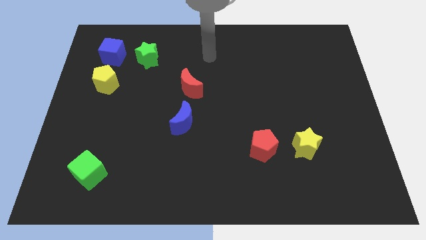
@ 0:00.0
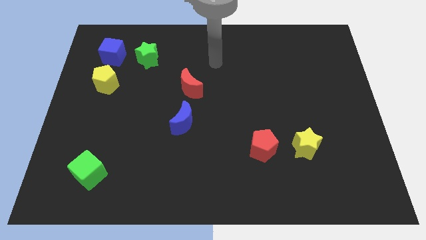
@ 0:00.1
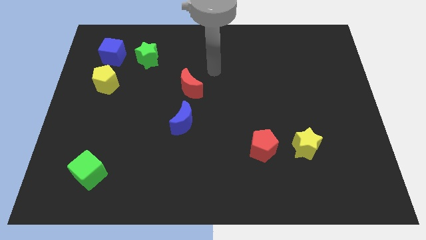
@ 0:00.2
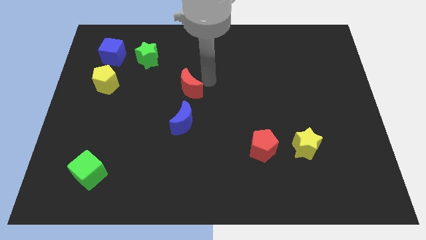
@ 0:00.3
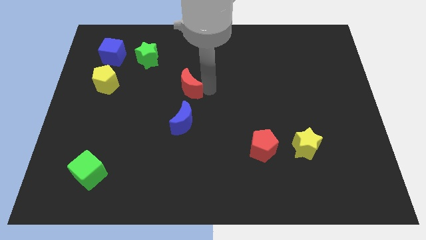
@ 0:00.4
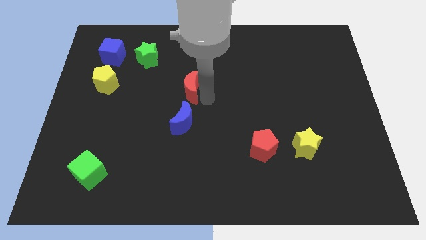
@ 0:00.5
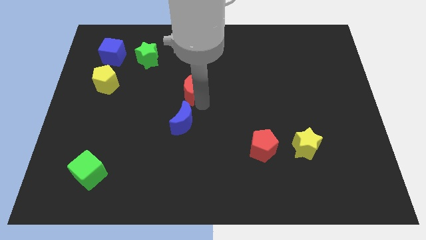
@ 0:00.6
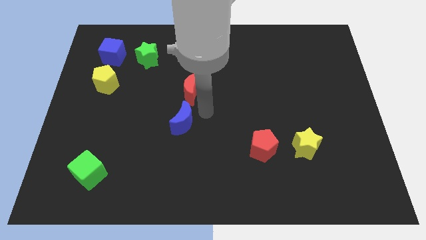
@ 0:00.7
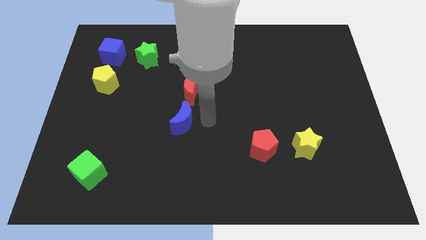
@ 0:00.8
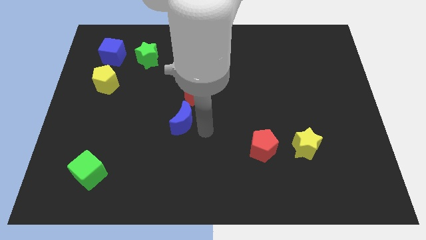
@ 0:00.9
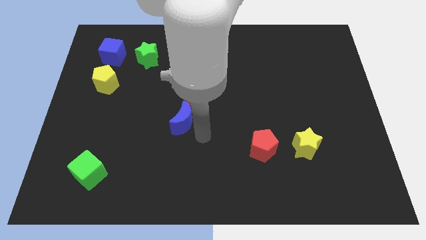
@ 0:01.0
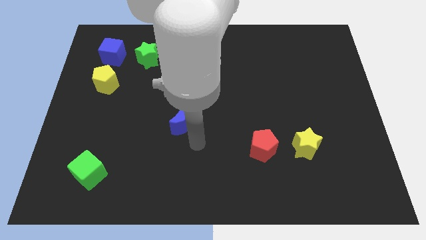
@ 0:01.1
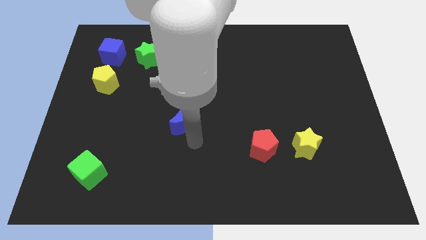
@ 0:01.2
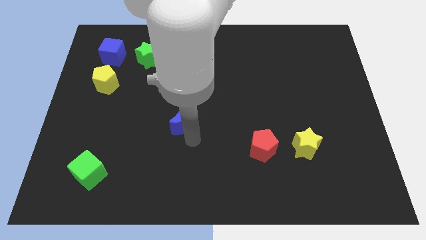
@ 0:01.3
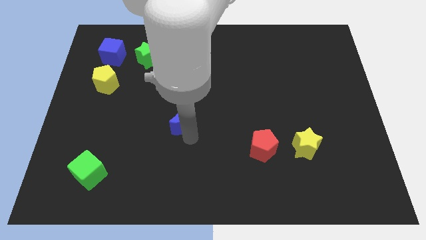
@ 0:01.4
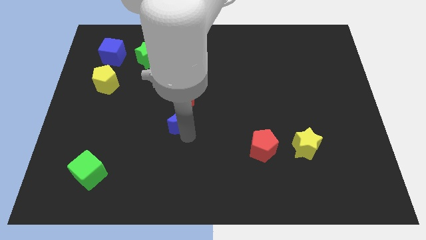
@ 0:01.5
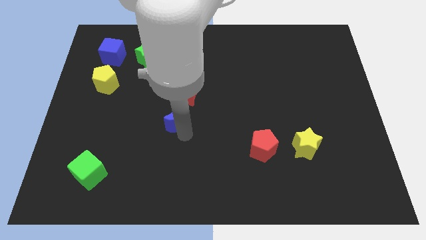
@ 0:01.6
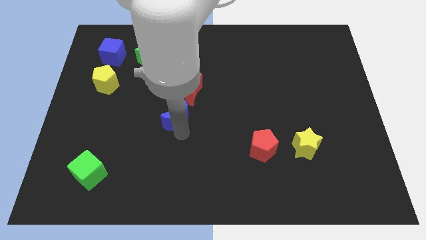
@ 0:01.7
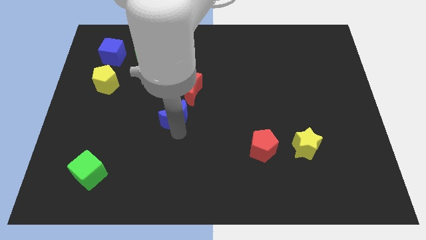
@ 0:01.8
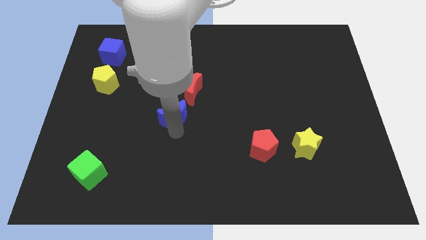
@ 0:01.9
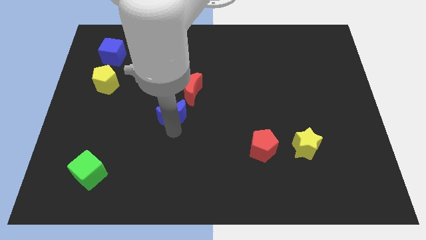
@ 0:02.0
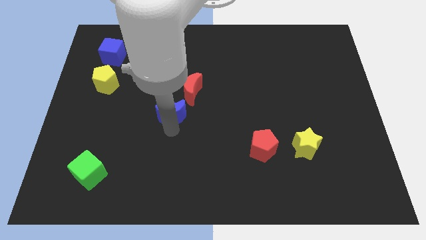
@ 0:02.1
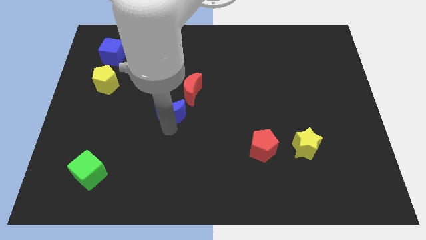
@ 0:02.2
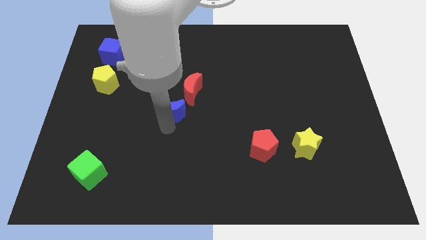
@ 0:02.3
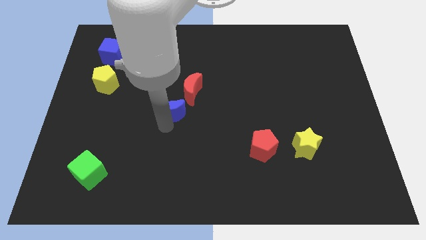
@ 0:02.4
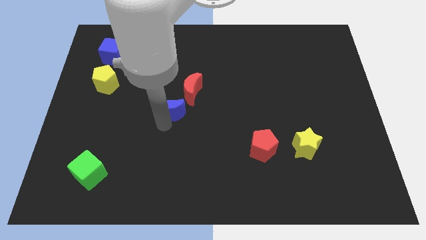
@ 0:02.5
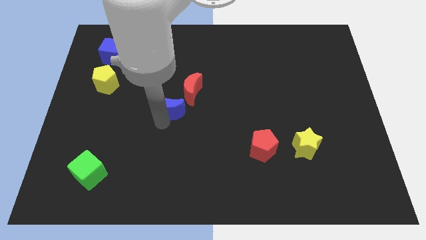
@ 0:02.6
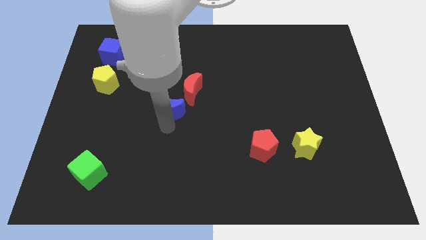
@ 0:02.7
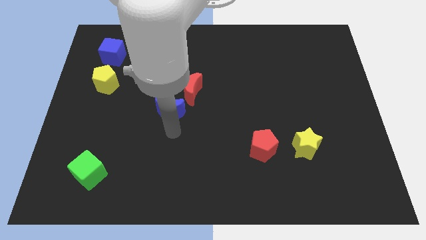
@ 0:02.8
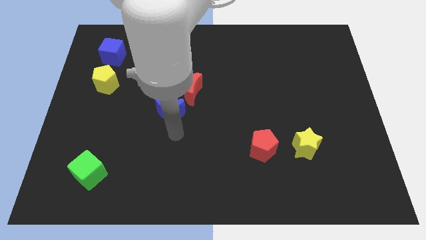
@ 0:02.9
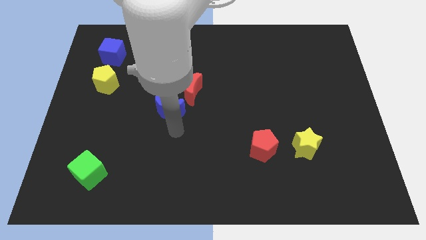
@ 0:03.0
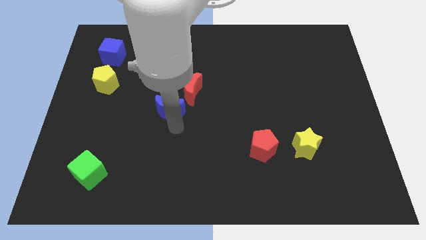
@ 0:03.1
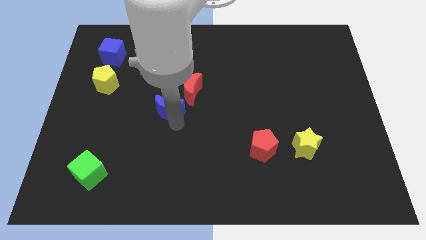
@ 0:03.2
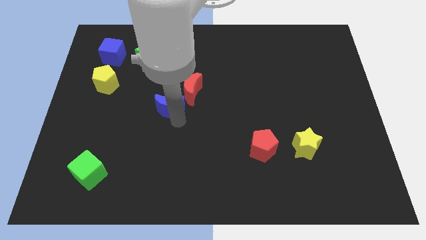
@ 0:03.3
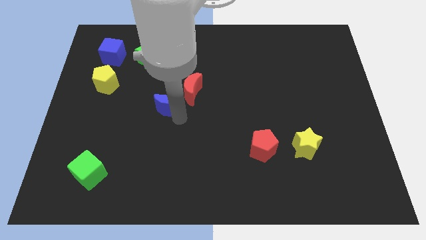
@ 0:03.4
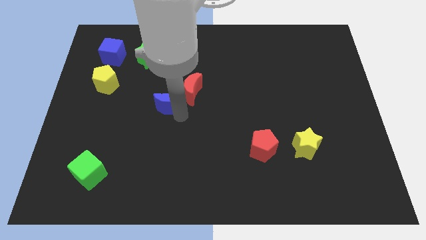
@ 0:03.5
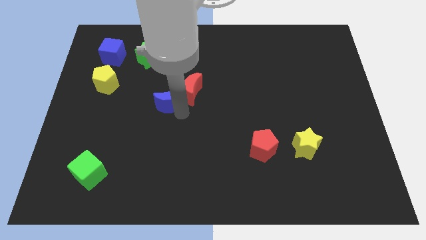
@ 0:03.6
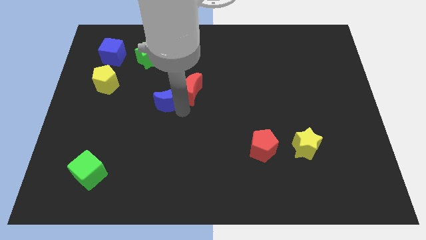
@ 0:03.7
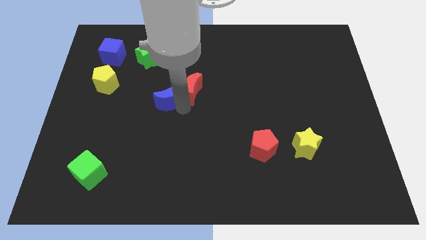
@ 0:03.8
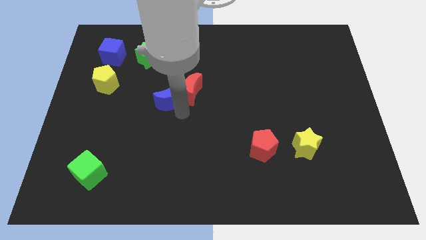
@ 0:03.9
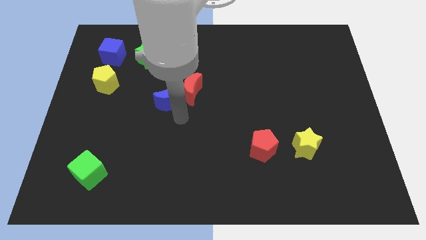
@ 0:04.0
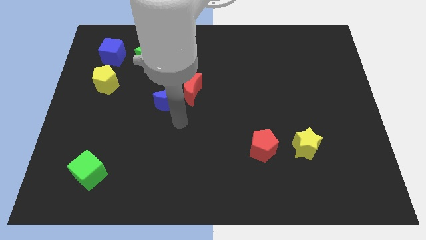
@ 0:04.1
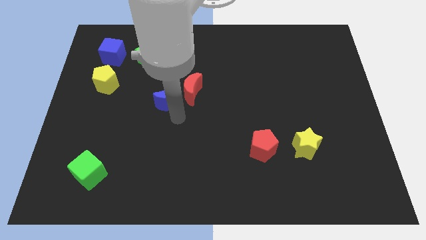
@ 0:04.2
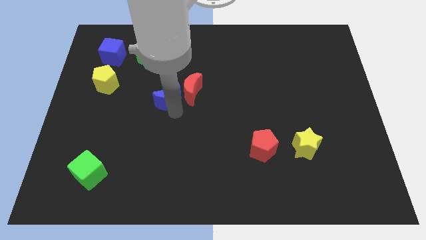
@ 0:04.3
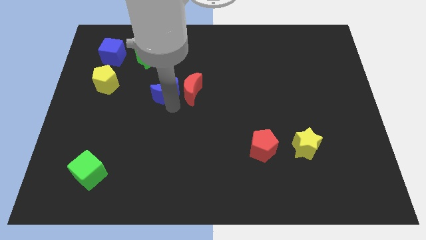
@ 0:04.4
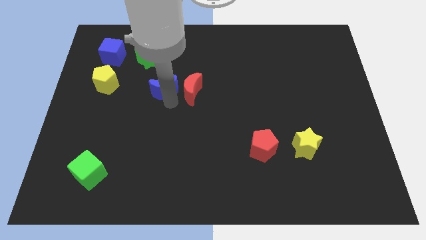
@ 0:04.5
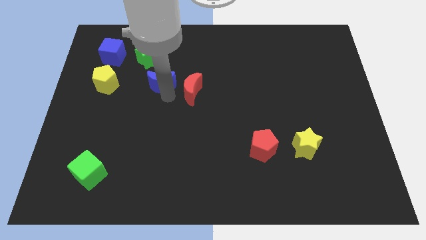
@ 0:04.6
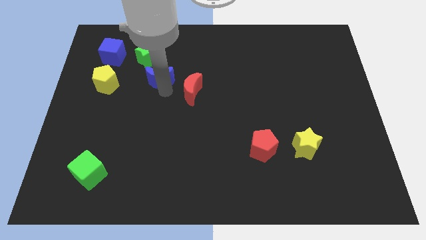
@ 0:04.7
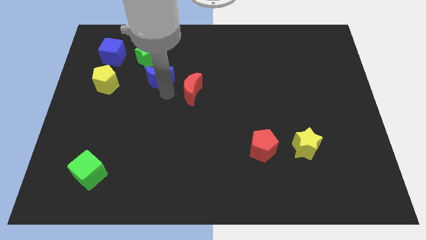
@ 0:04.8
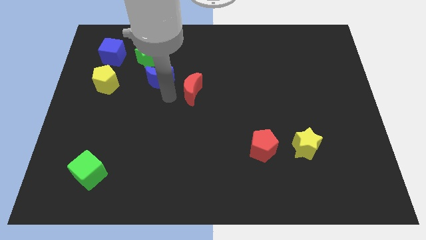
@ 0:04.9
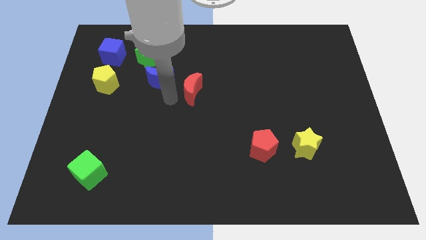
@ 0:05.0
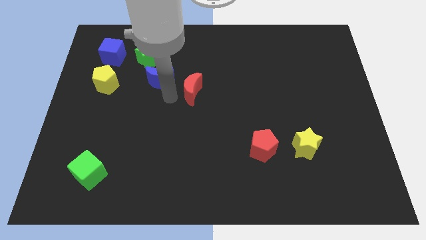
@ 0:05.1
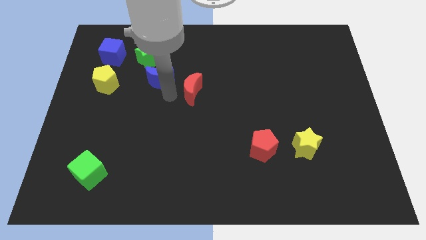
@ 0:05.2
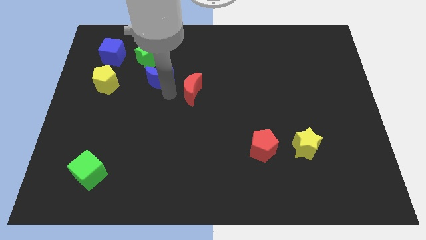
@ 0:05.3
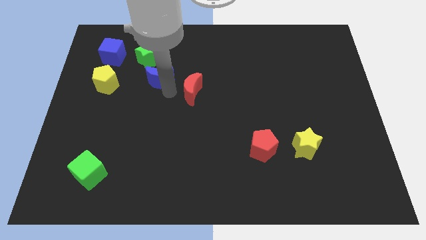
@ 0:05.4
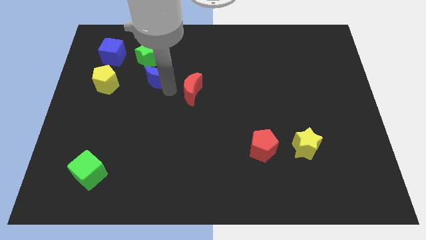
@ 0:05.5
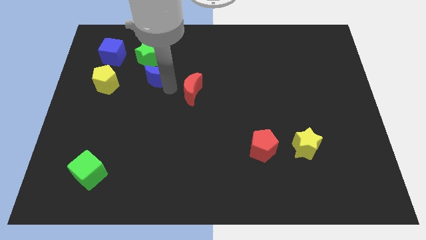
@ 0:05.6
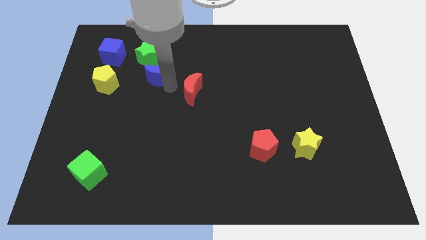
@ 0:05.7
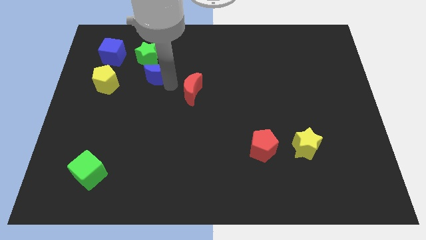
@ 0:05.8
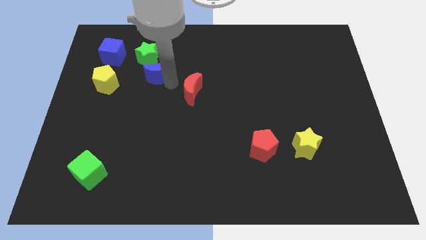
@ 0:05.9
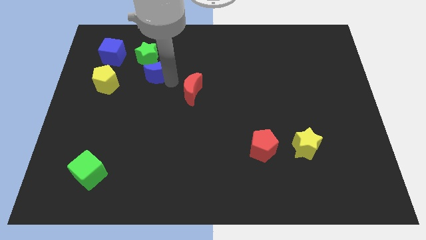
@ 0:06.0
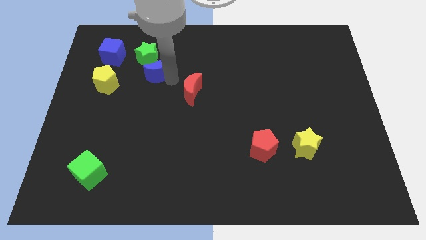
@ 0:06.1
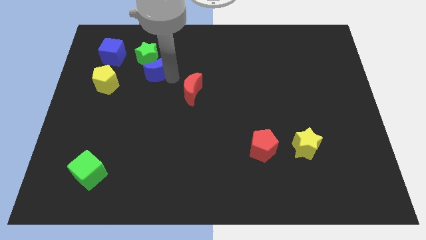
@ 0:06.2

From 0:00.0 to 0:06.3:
move the blue moon close to the green star

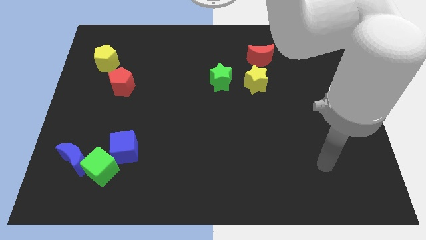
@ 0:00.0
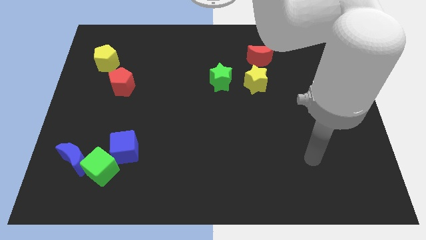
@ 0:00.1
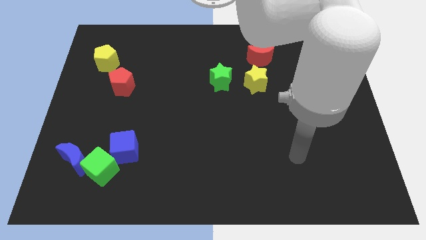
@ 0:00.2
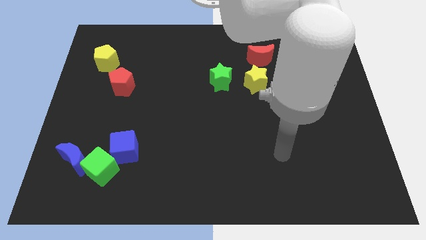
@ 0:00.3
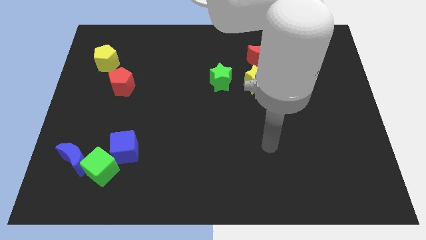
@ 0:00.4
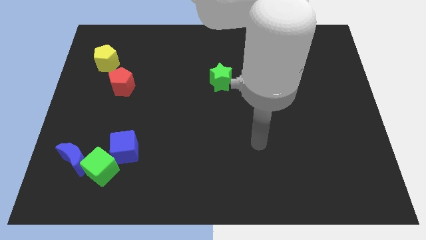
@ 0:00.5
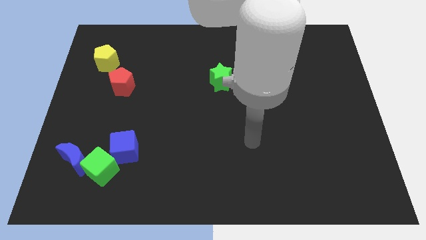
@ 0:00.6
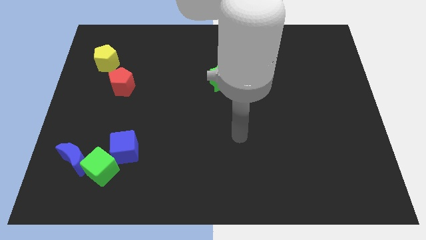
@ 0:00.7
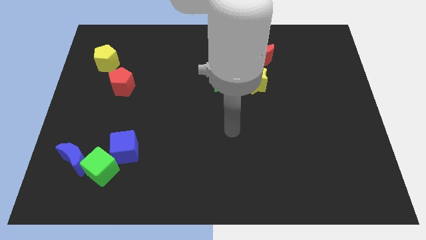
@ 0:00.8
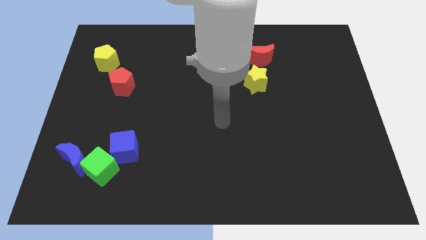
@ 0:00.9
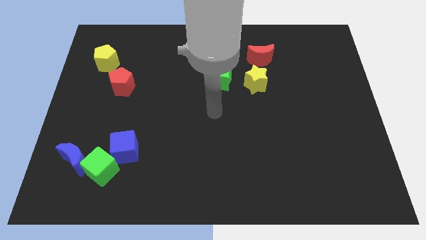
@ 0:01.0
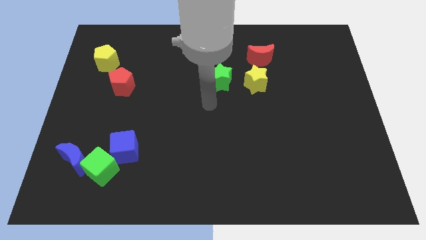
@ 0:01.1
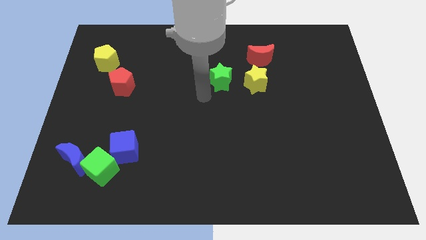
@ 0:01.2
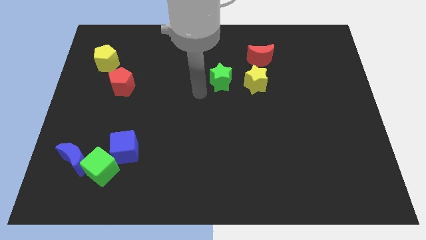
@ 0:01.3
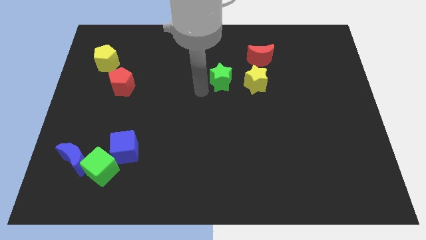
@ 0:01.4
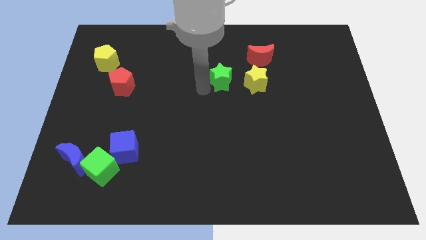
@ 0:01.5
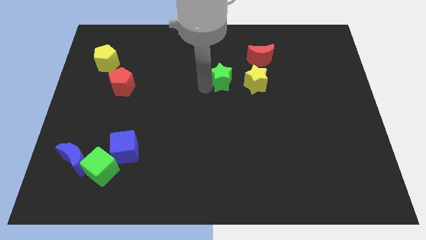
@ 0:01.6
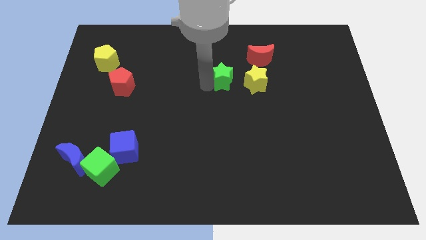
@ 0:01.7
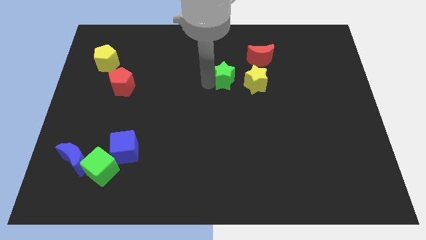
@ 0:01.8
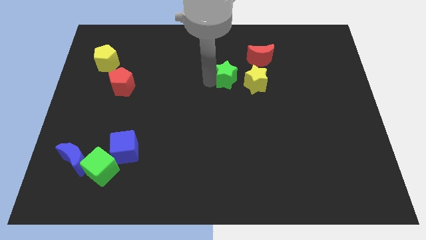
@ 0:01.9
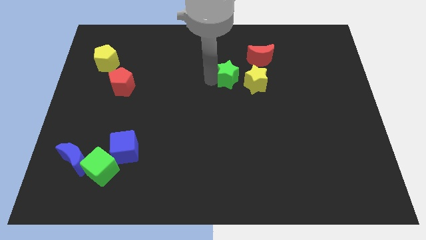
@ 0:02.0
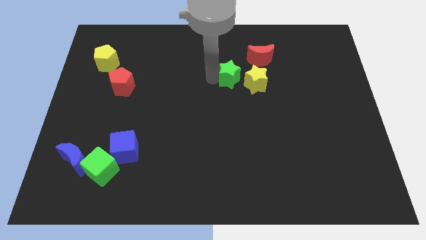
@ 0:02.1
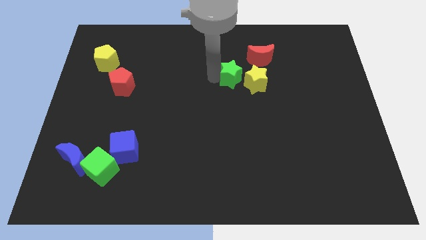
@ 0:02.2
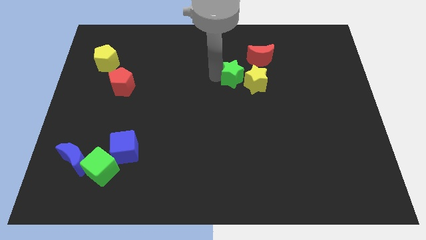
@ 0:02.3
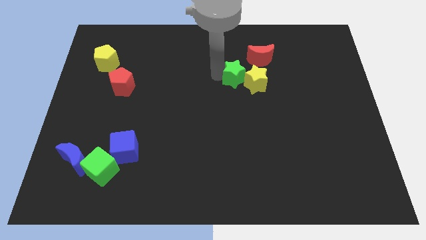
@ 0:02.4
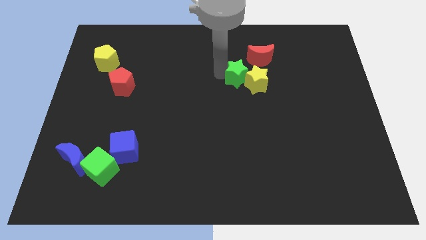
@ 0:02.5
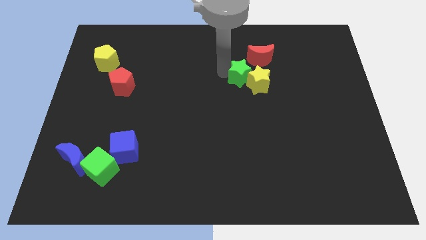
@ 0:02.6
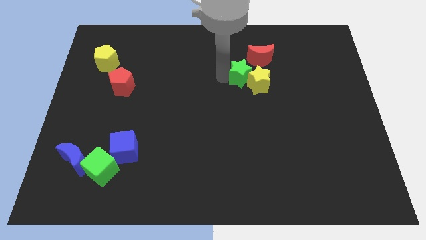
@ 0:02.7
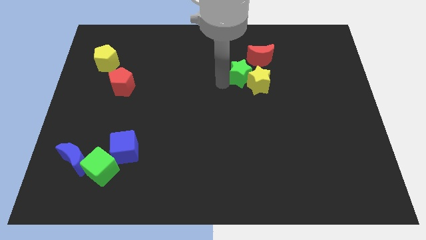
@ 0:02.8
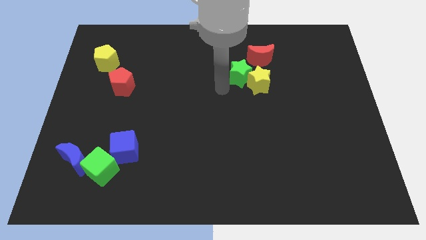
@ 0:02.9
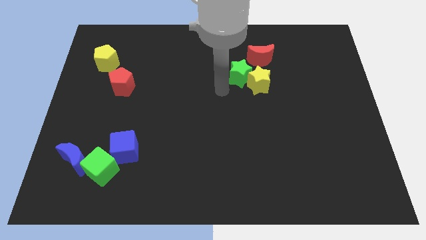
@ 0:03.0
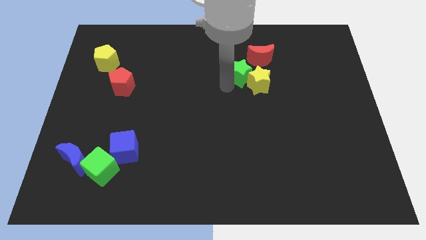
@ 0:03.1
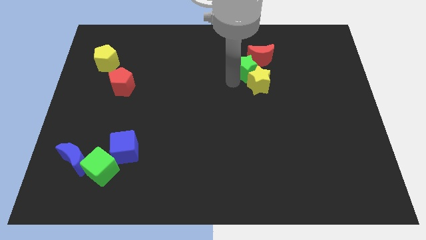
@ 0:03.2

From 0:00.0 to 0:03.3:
put the green star close to the red moon
